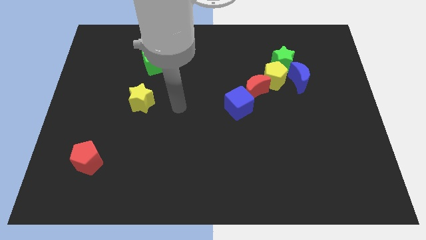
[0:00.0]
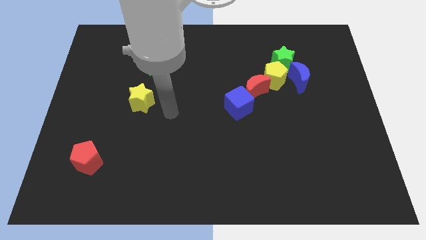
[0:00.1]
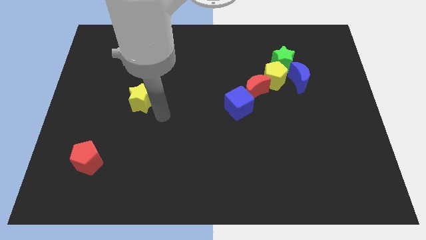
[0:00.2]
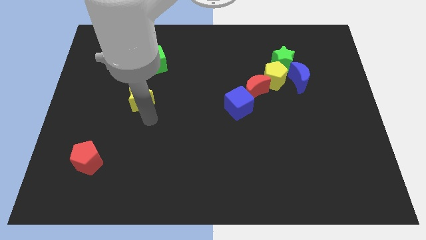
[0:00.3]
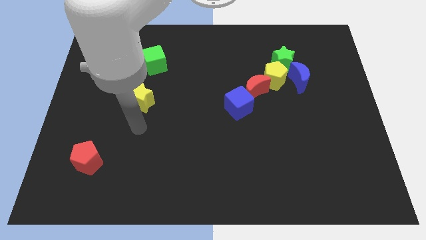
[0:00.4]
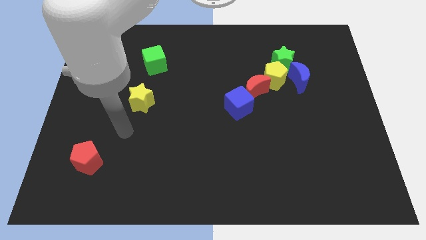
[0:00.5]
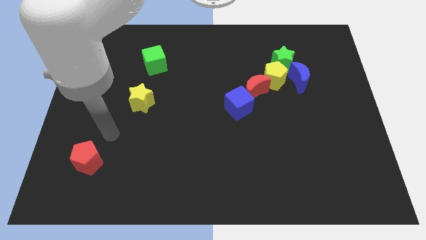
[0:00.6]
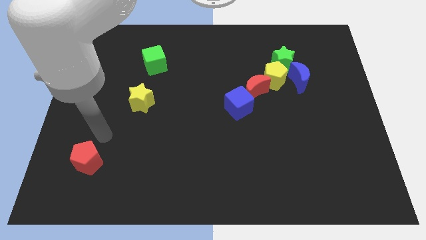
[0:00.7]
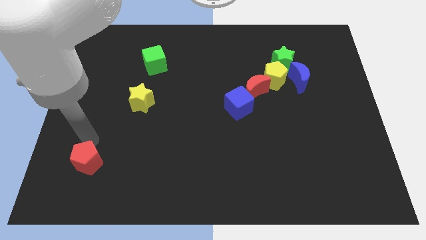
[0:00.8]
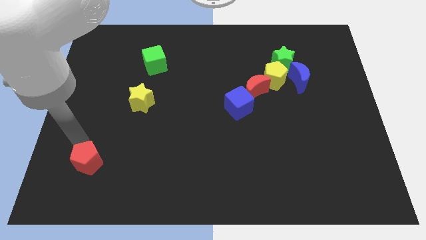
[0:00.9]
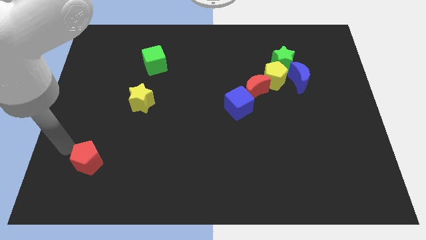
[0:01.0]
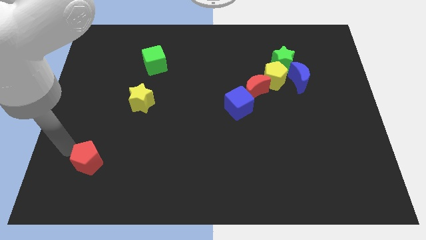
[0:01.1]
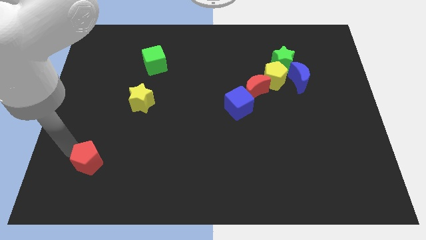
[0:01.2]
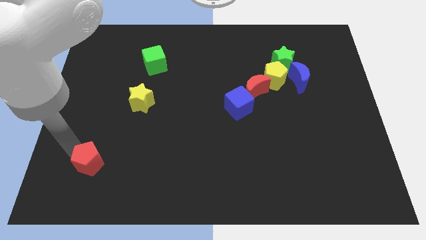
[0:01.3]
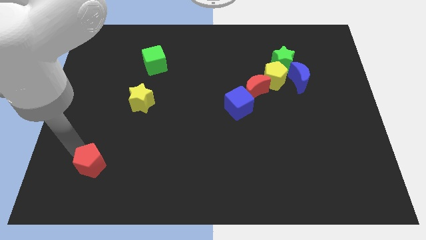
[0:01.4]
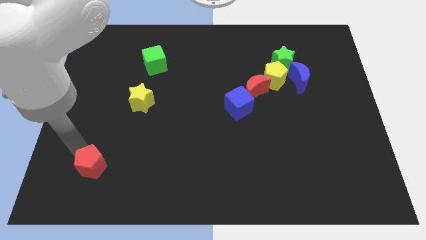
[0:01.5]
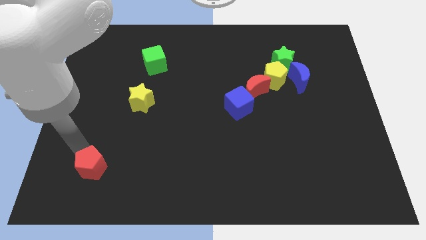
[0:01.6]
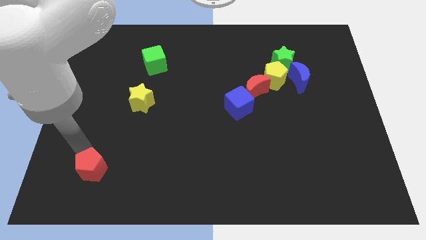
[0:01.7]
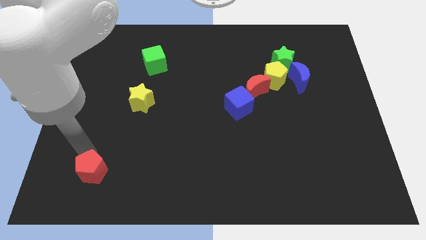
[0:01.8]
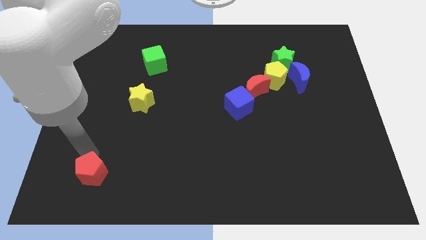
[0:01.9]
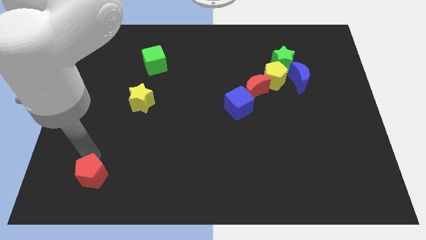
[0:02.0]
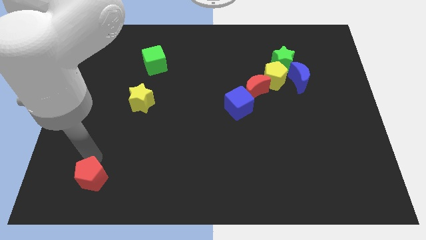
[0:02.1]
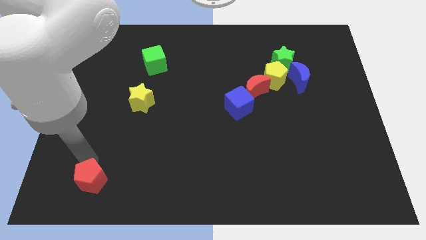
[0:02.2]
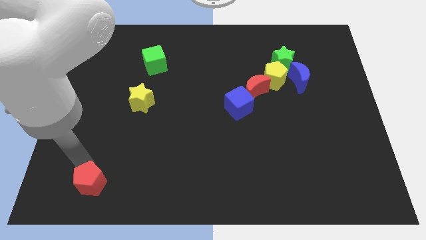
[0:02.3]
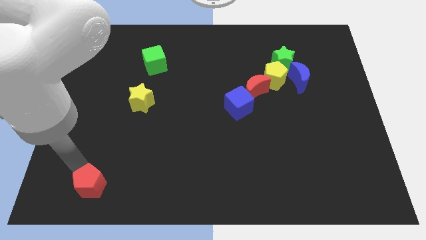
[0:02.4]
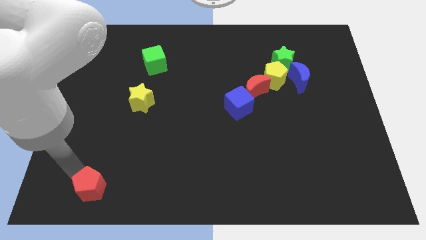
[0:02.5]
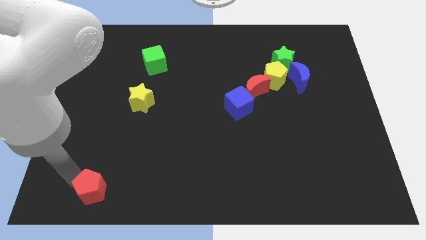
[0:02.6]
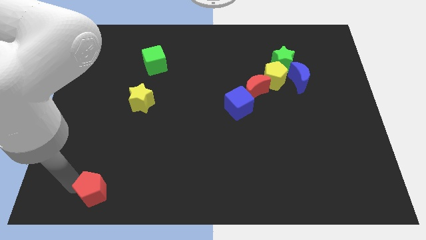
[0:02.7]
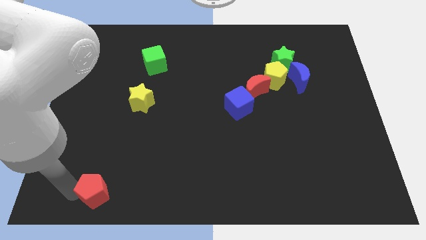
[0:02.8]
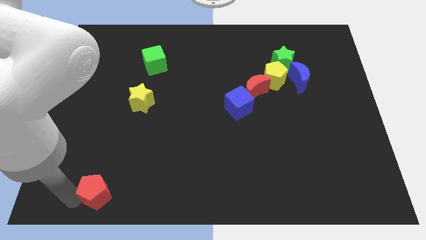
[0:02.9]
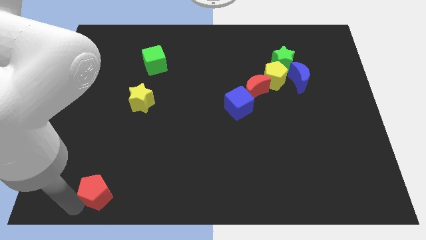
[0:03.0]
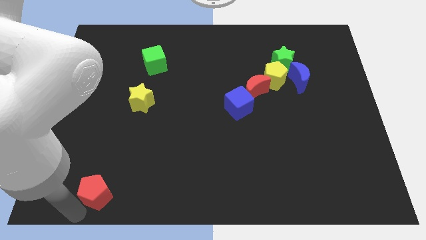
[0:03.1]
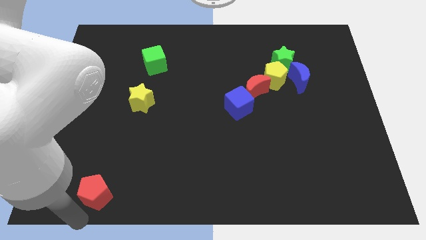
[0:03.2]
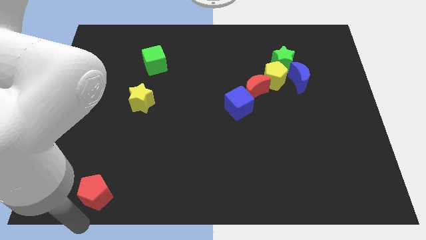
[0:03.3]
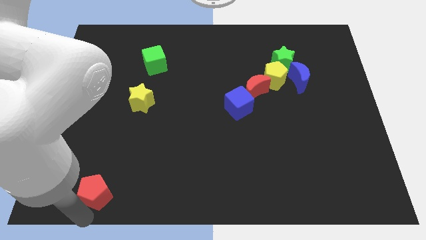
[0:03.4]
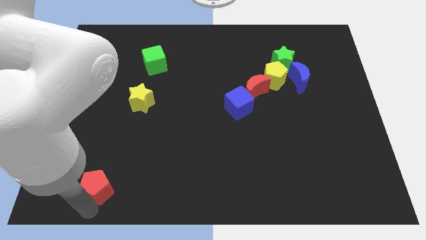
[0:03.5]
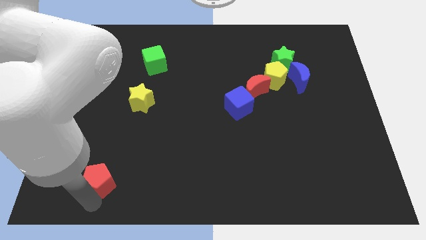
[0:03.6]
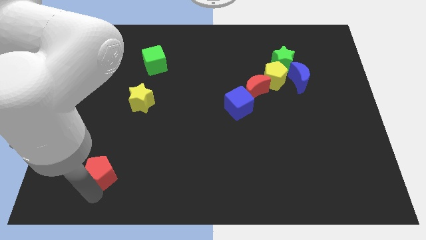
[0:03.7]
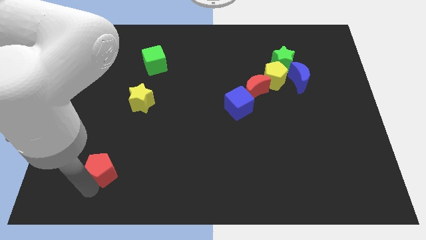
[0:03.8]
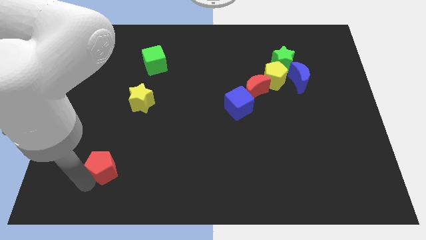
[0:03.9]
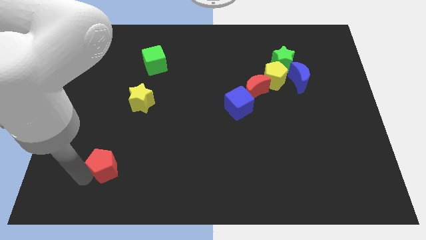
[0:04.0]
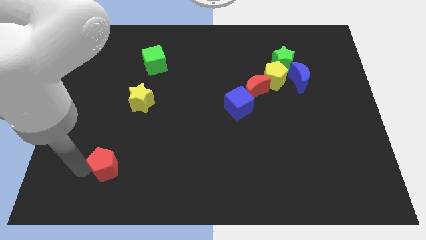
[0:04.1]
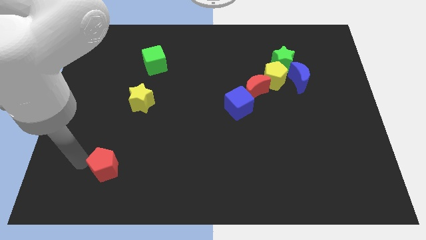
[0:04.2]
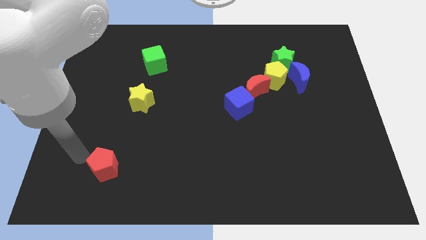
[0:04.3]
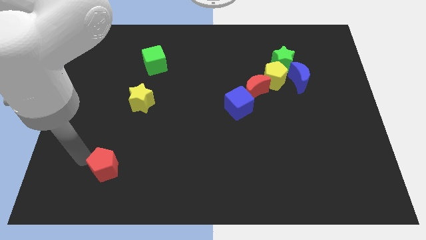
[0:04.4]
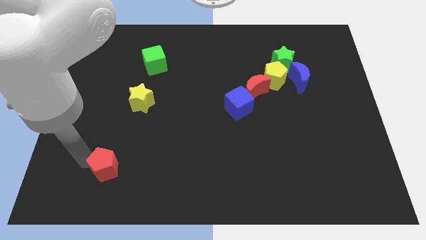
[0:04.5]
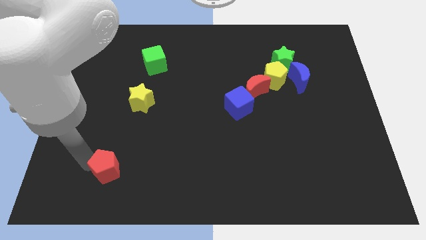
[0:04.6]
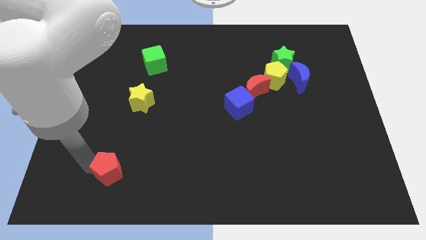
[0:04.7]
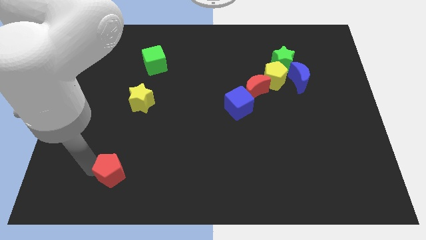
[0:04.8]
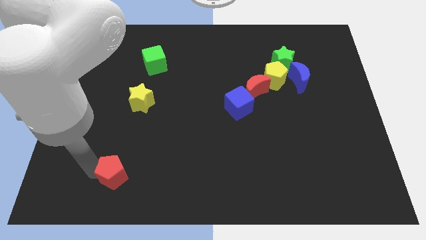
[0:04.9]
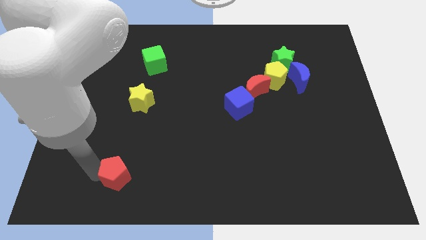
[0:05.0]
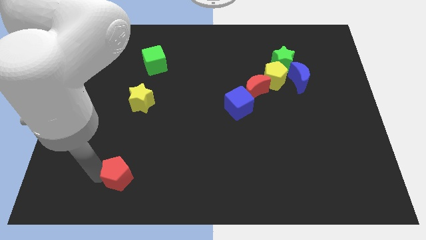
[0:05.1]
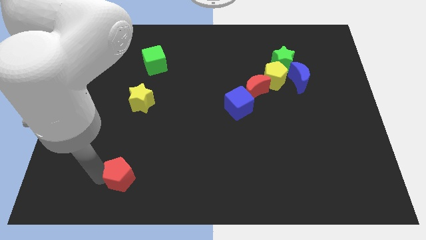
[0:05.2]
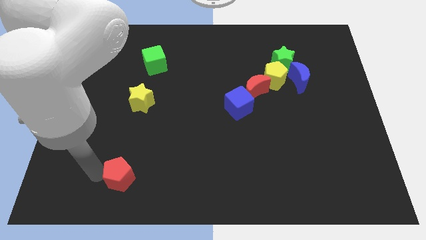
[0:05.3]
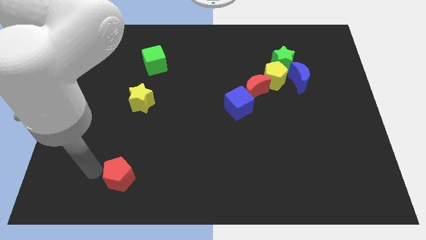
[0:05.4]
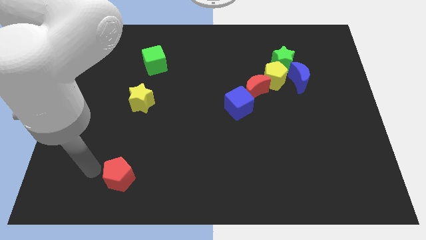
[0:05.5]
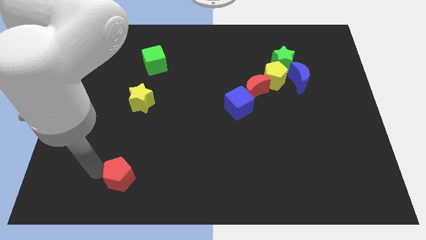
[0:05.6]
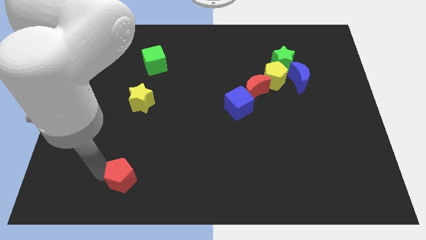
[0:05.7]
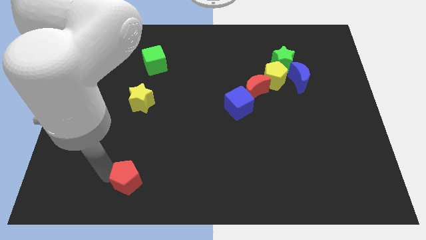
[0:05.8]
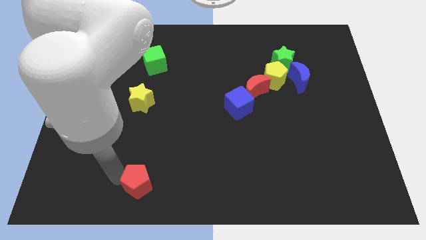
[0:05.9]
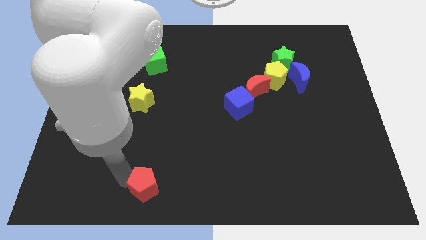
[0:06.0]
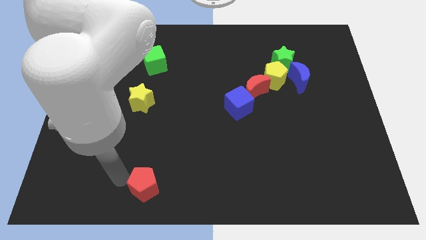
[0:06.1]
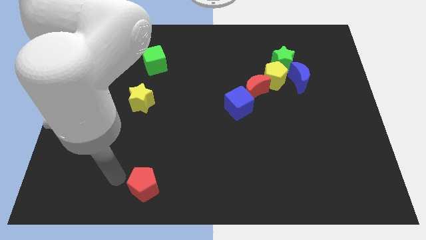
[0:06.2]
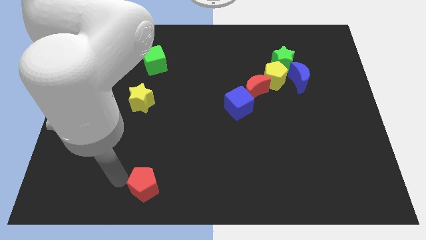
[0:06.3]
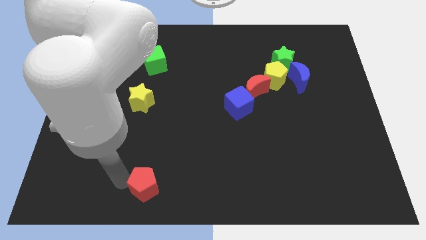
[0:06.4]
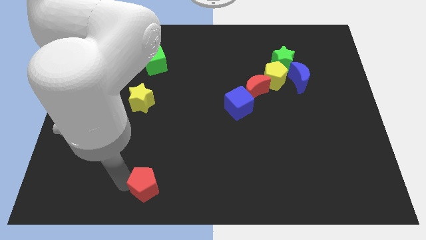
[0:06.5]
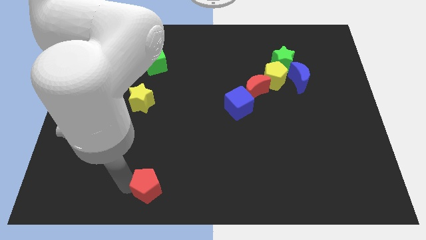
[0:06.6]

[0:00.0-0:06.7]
move the red pentagon to the bottom

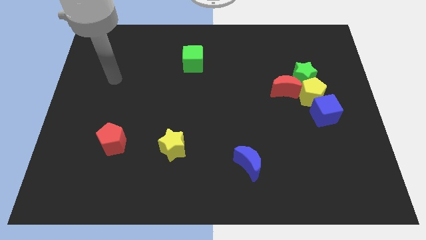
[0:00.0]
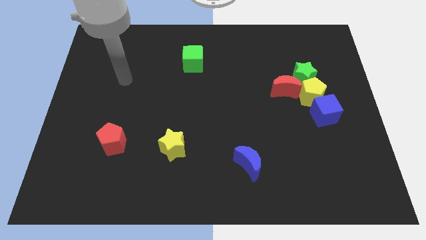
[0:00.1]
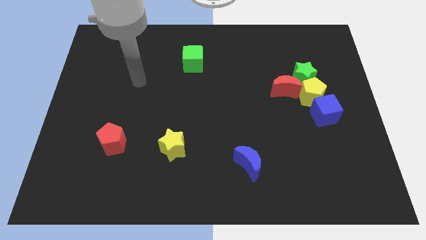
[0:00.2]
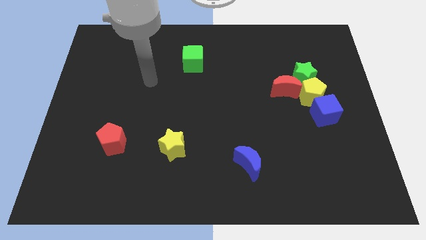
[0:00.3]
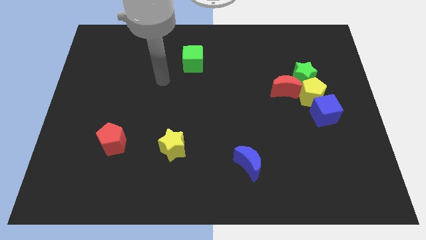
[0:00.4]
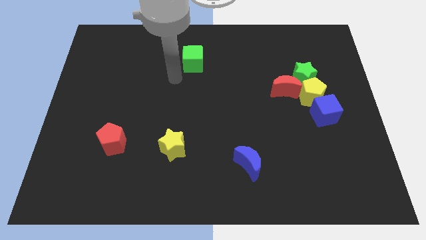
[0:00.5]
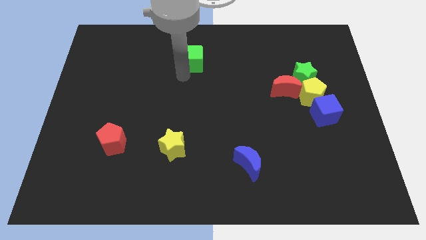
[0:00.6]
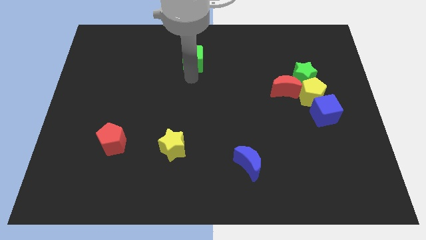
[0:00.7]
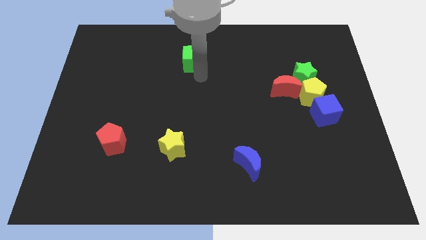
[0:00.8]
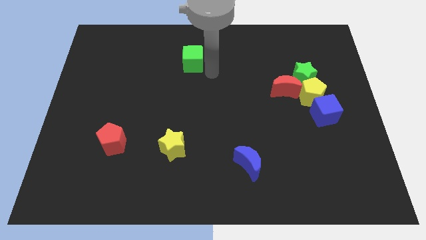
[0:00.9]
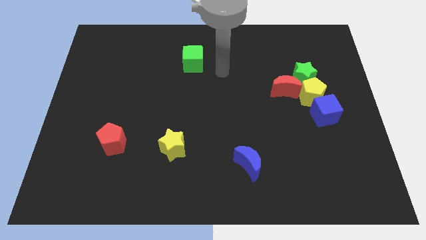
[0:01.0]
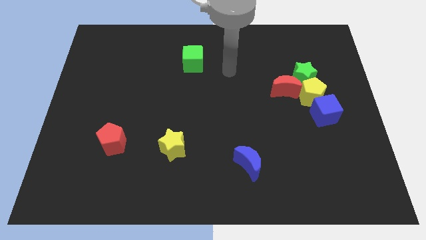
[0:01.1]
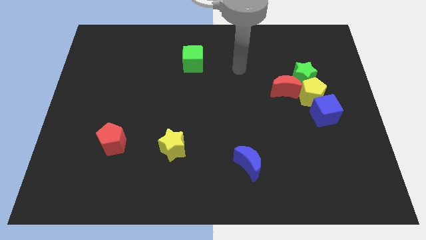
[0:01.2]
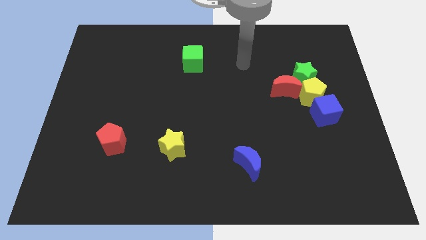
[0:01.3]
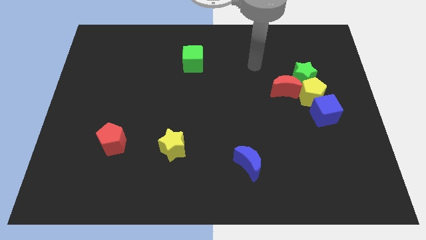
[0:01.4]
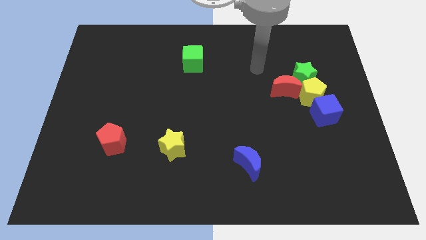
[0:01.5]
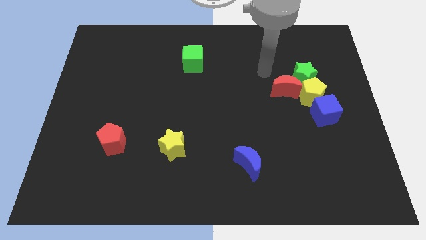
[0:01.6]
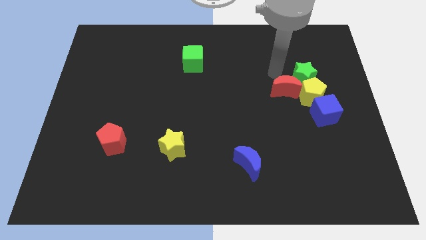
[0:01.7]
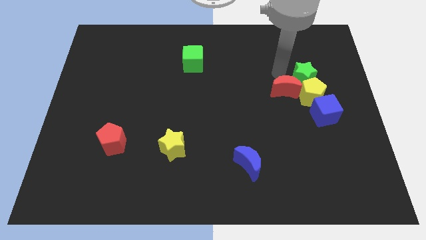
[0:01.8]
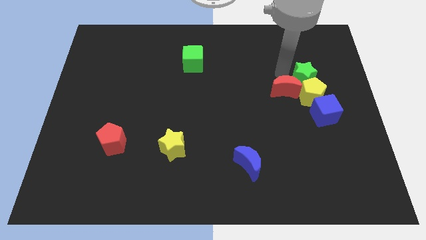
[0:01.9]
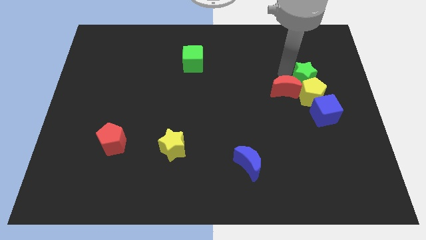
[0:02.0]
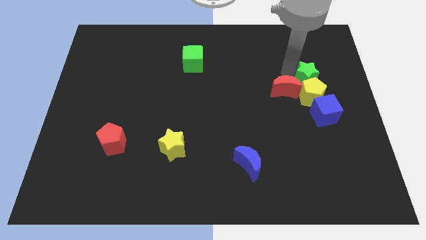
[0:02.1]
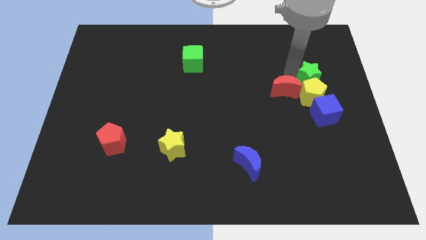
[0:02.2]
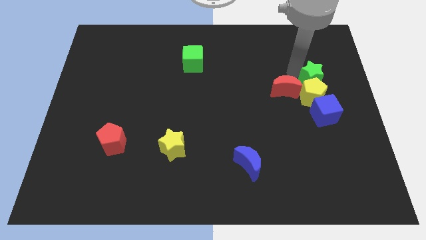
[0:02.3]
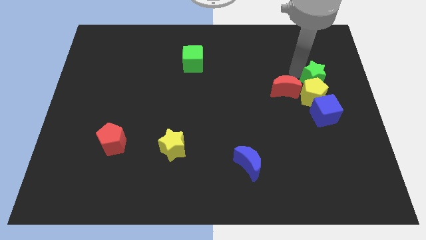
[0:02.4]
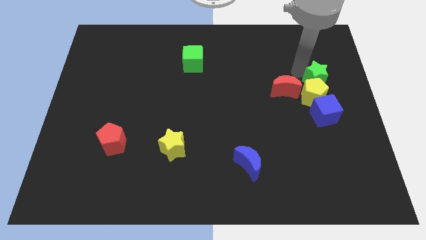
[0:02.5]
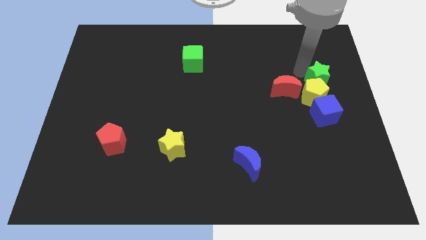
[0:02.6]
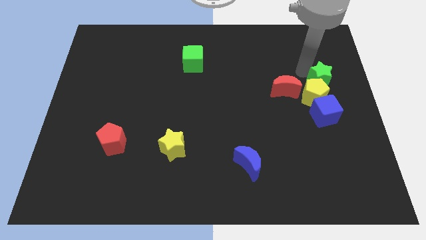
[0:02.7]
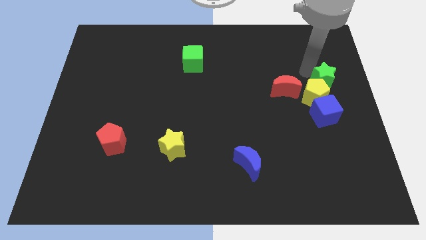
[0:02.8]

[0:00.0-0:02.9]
slide the green star to the right side of the board
